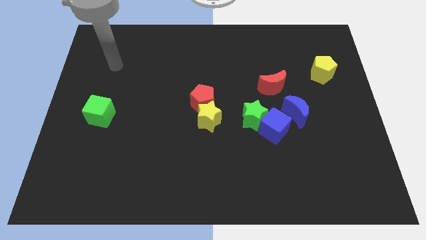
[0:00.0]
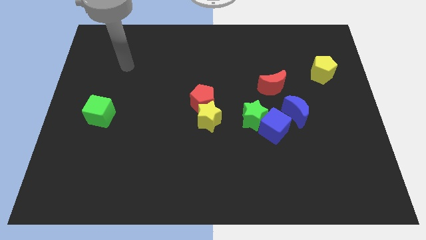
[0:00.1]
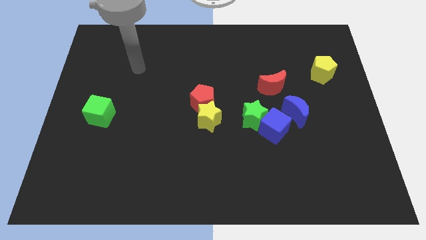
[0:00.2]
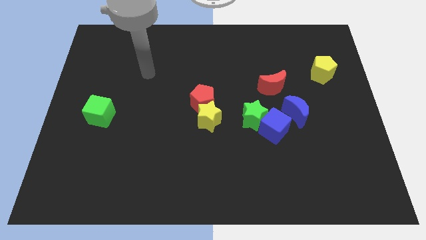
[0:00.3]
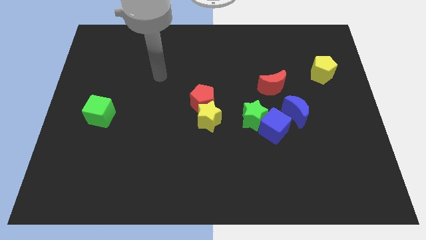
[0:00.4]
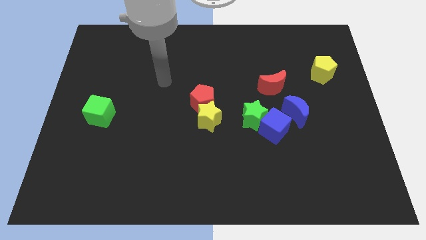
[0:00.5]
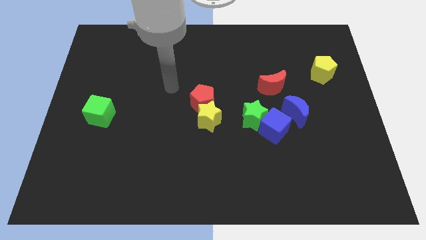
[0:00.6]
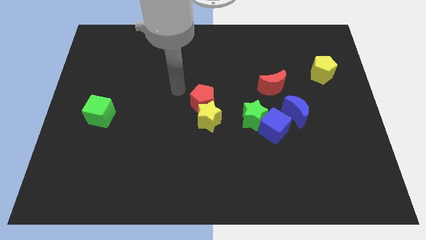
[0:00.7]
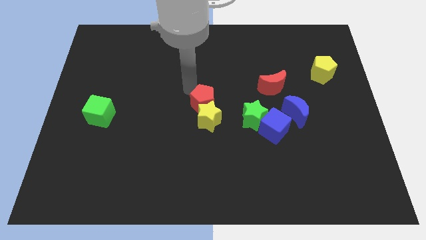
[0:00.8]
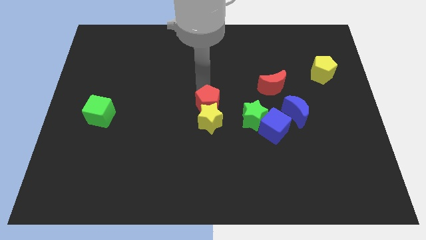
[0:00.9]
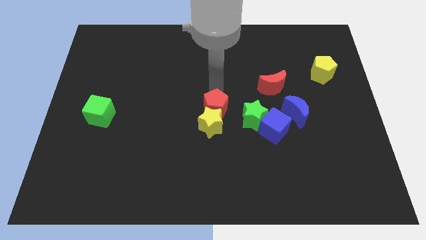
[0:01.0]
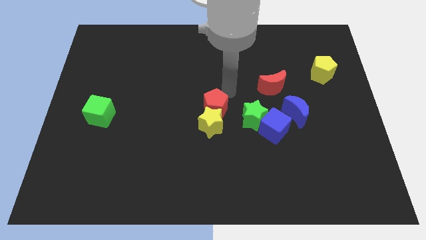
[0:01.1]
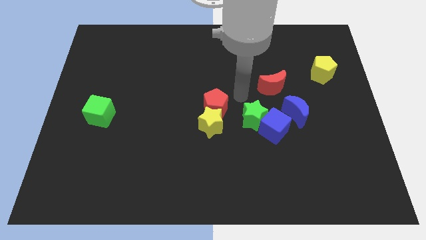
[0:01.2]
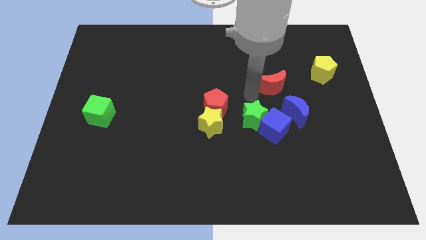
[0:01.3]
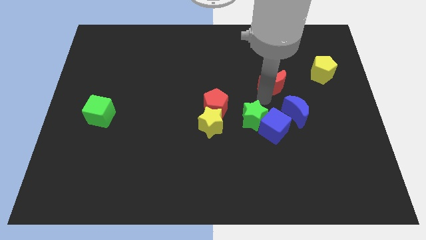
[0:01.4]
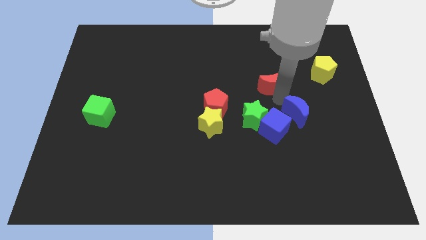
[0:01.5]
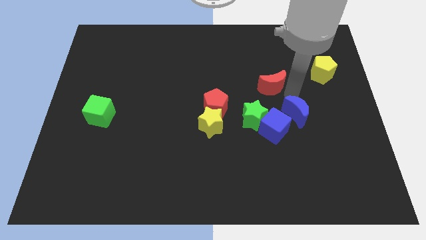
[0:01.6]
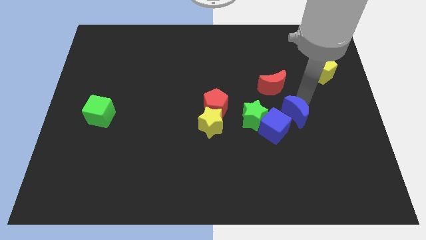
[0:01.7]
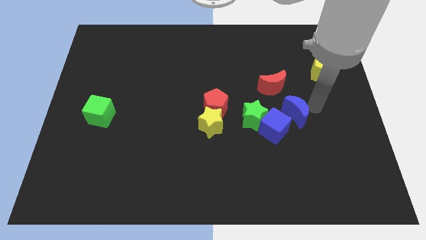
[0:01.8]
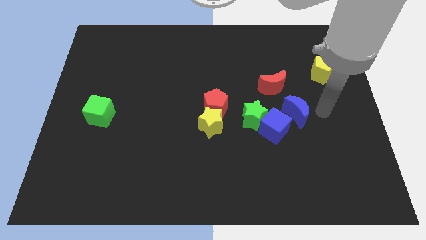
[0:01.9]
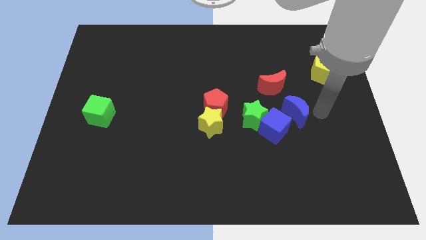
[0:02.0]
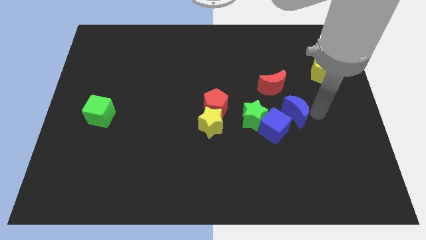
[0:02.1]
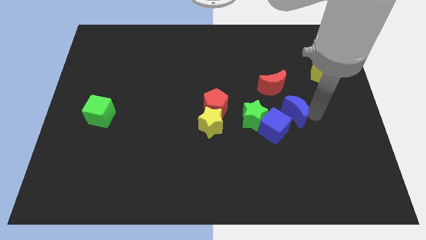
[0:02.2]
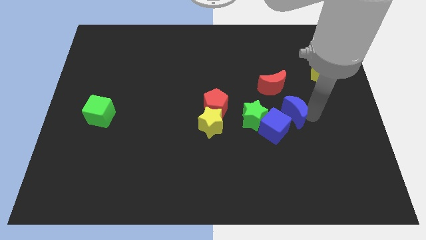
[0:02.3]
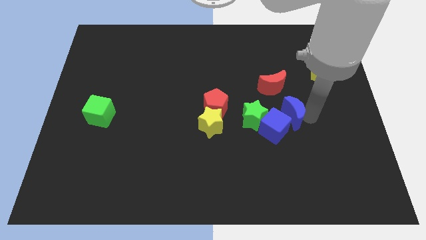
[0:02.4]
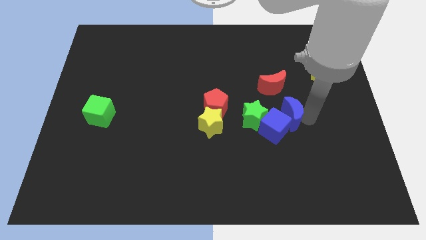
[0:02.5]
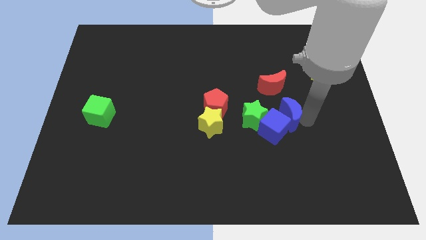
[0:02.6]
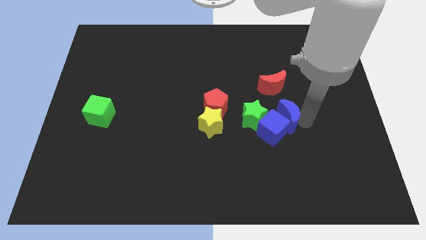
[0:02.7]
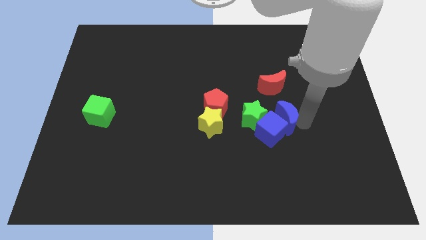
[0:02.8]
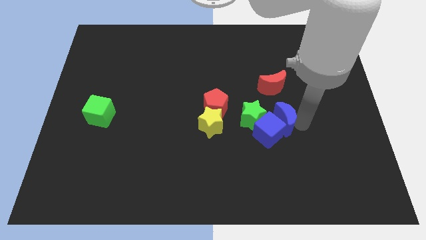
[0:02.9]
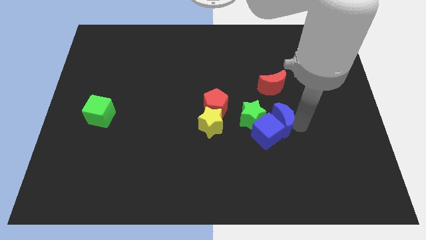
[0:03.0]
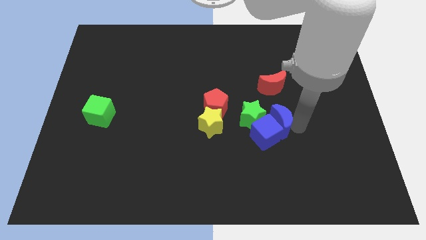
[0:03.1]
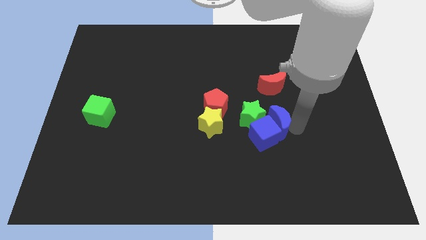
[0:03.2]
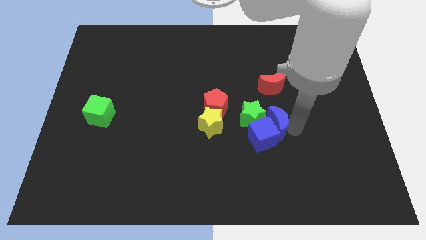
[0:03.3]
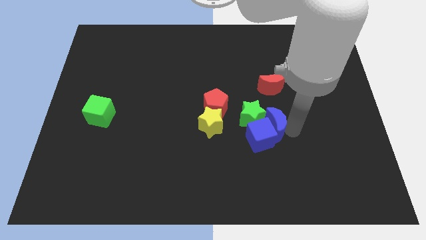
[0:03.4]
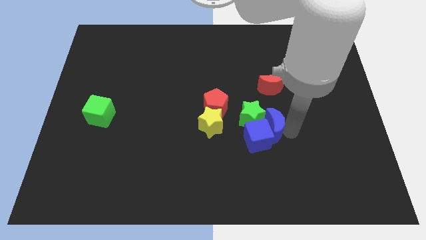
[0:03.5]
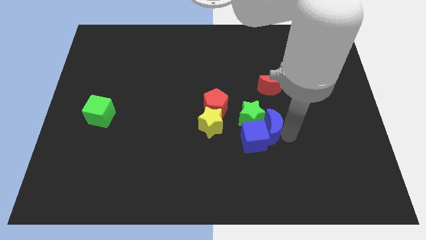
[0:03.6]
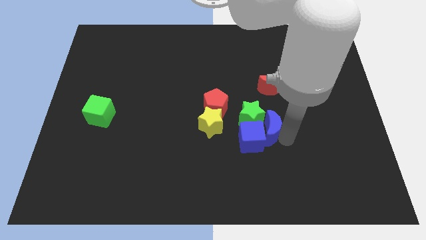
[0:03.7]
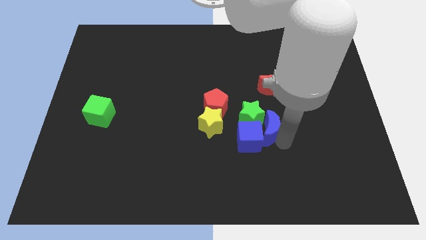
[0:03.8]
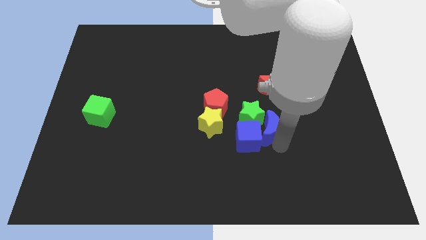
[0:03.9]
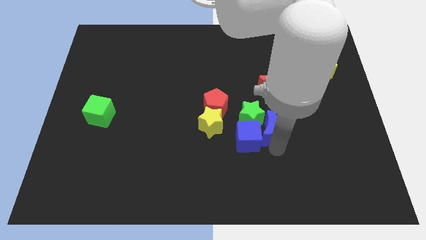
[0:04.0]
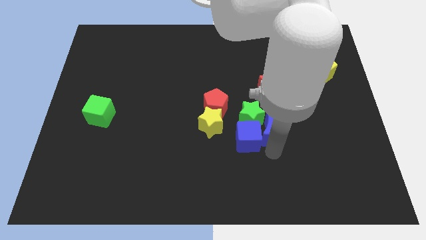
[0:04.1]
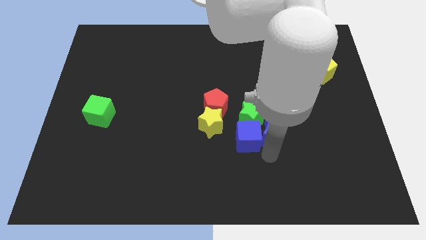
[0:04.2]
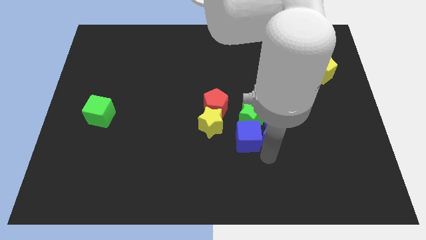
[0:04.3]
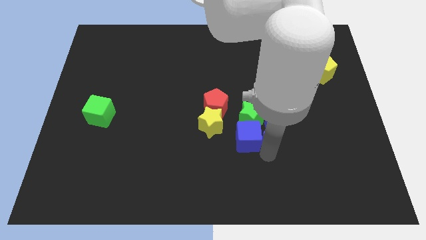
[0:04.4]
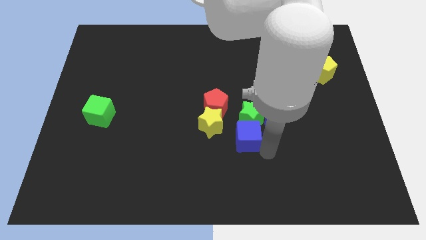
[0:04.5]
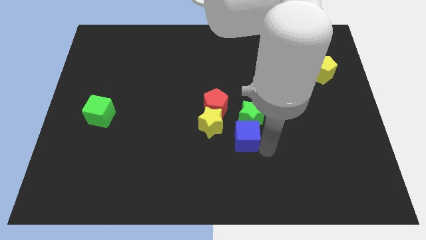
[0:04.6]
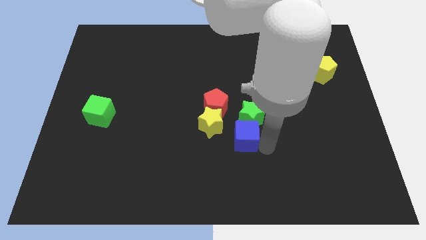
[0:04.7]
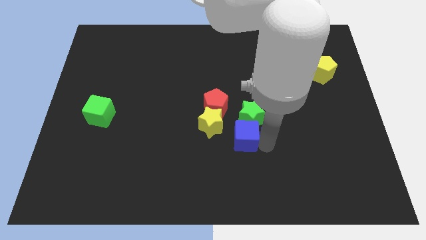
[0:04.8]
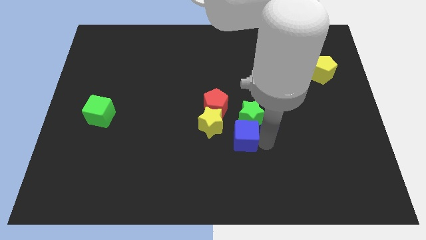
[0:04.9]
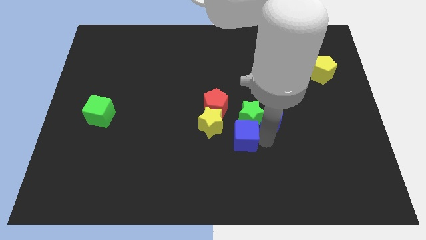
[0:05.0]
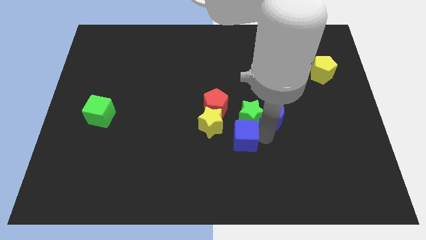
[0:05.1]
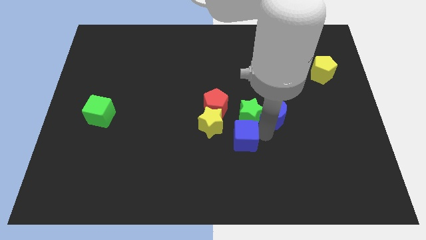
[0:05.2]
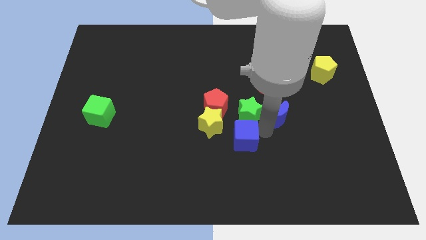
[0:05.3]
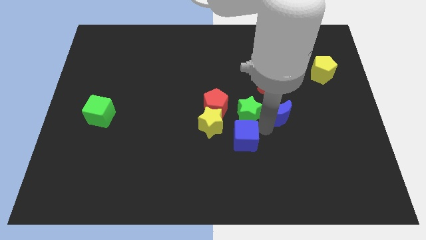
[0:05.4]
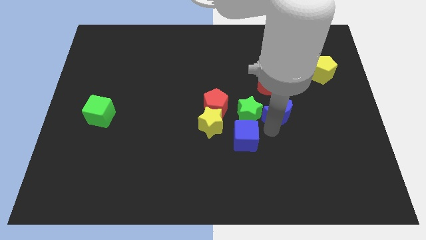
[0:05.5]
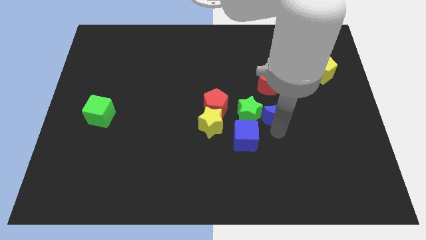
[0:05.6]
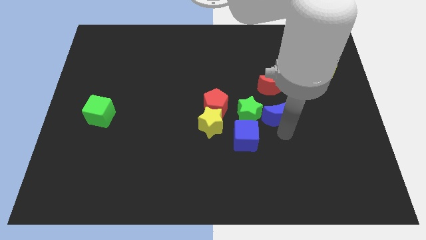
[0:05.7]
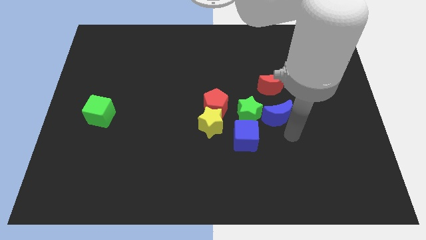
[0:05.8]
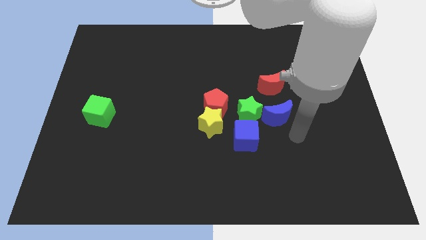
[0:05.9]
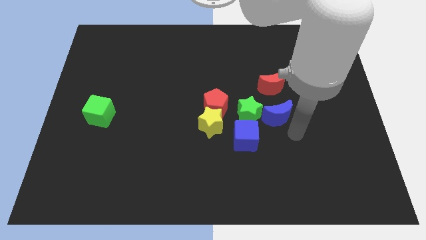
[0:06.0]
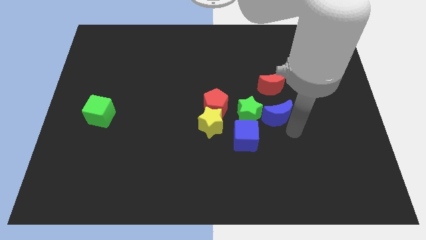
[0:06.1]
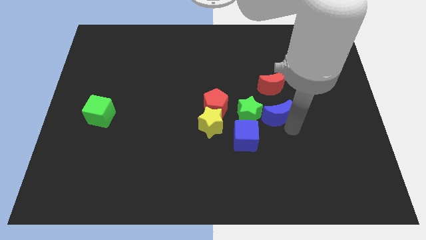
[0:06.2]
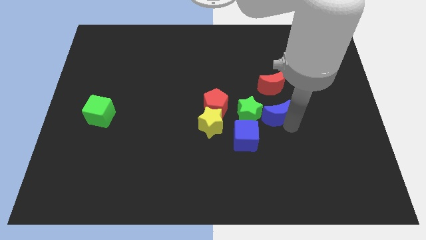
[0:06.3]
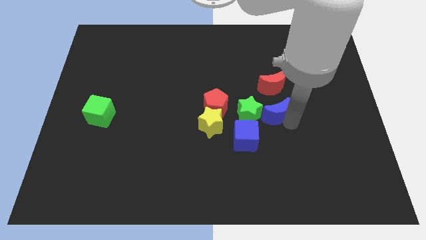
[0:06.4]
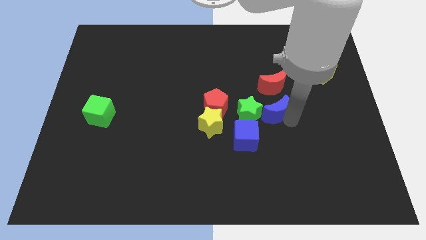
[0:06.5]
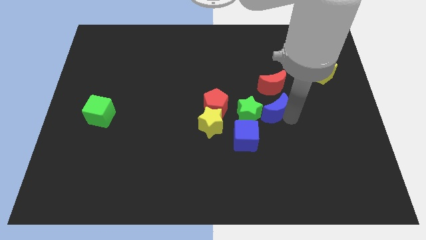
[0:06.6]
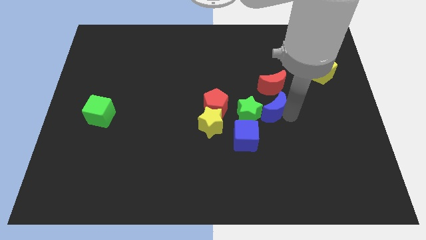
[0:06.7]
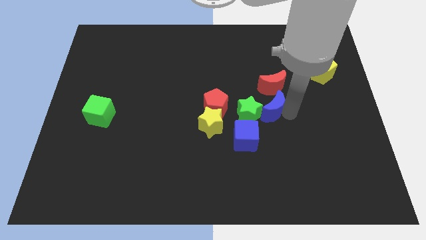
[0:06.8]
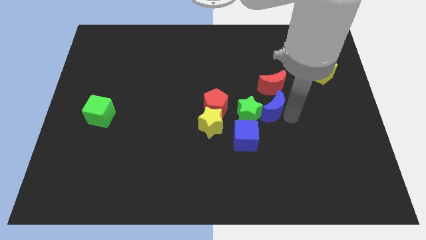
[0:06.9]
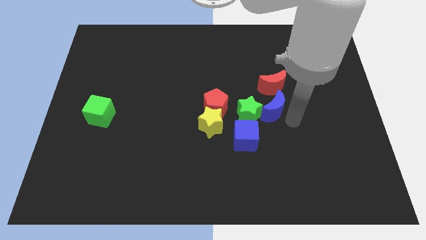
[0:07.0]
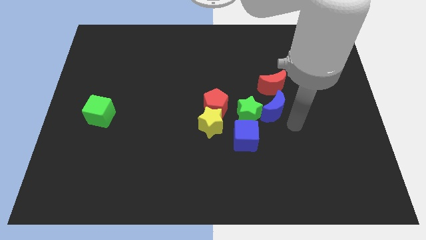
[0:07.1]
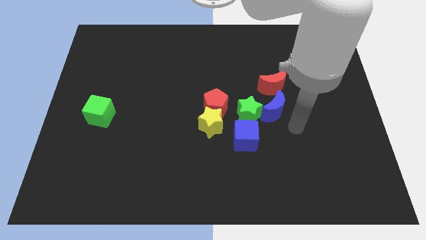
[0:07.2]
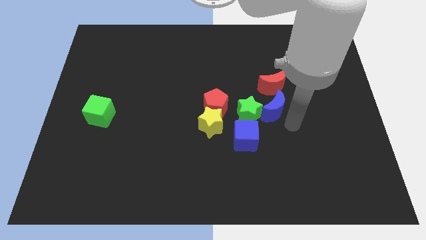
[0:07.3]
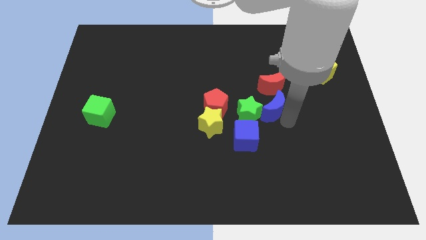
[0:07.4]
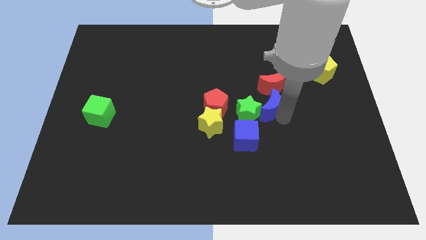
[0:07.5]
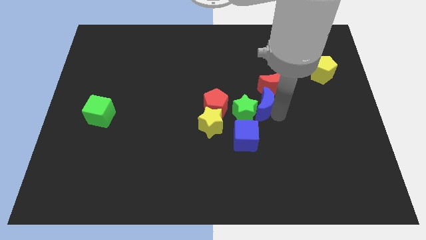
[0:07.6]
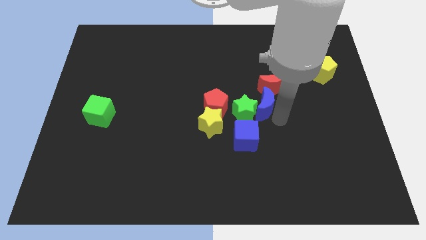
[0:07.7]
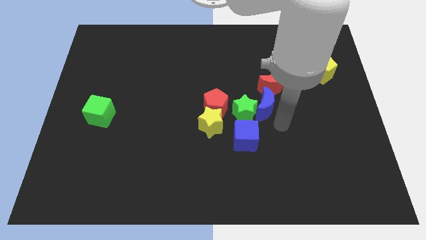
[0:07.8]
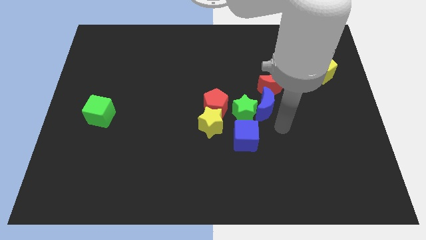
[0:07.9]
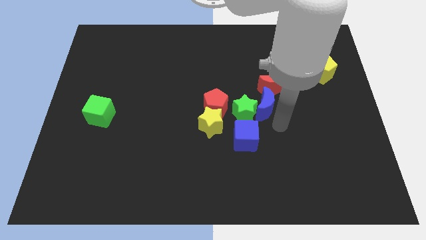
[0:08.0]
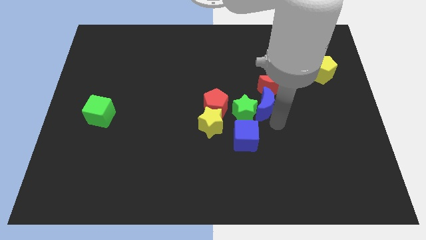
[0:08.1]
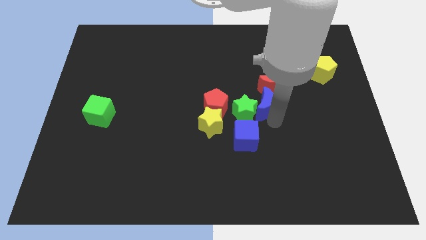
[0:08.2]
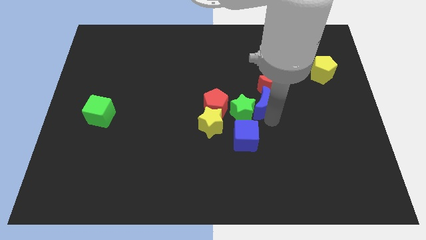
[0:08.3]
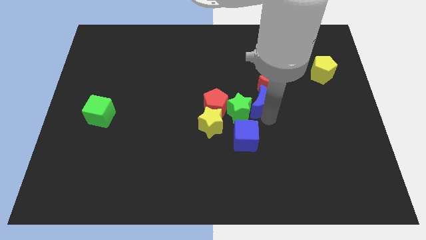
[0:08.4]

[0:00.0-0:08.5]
slightly slide the blue moon diagonally up and to the left

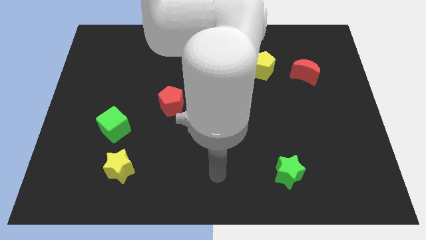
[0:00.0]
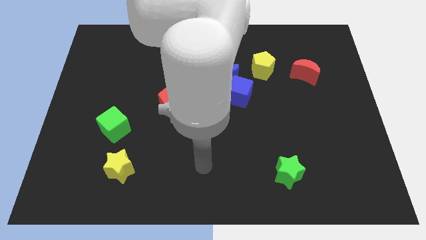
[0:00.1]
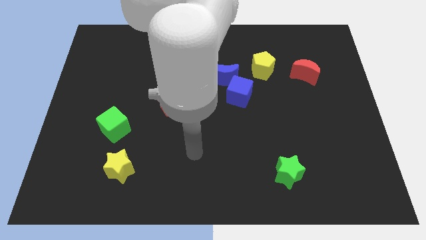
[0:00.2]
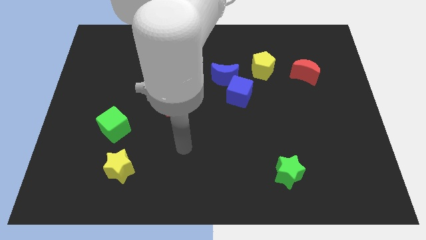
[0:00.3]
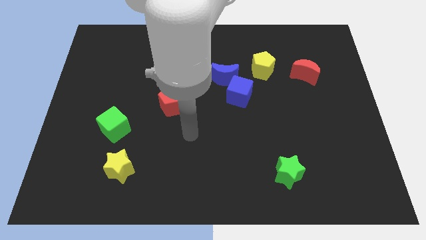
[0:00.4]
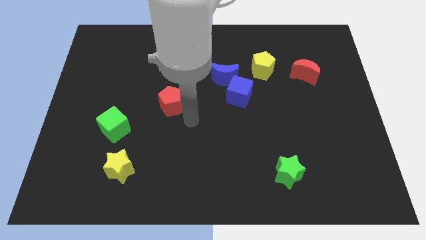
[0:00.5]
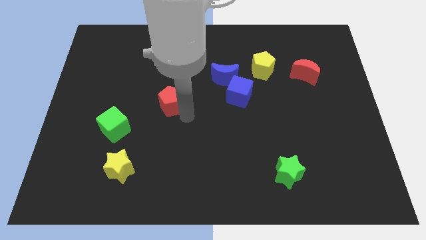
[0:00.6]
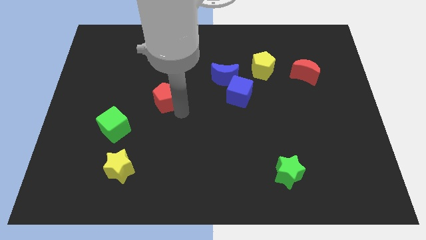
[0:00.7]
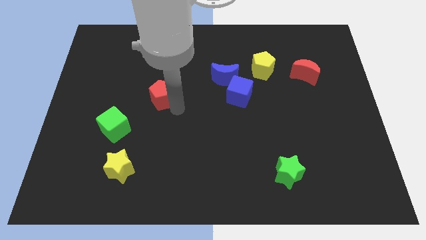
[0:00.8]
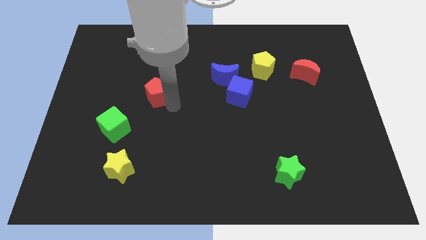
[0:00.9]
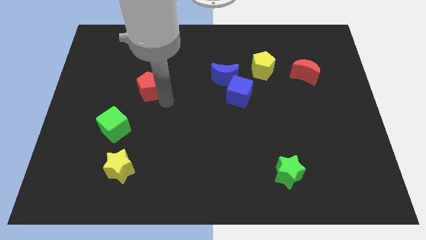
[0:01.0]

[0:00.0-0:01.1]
move the red pentagon somewhat upwards and then to the left
